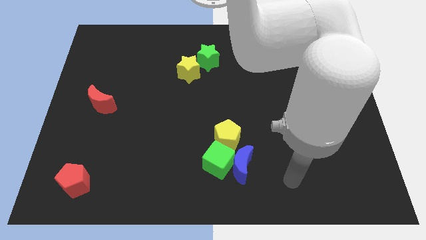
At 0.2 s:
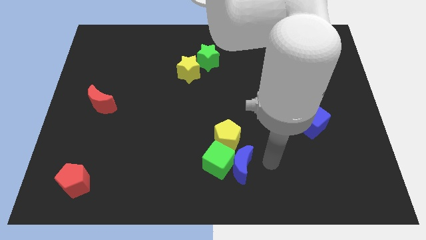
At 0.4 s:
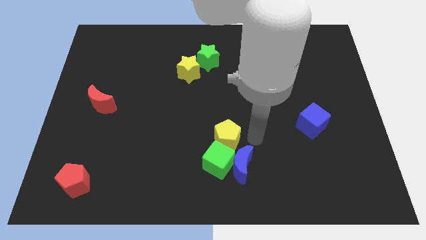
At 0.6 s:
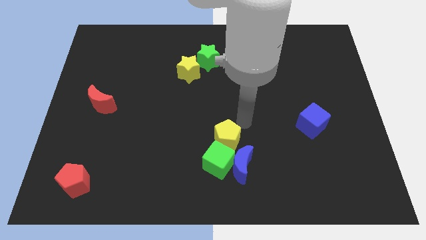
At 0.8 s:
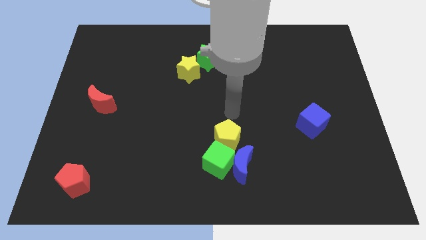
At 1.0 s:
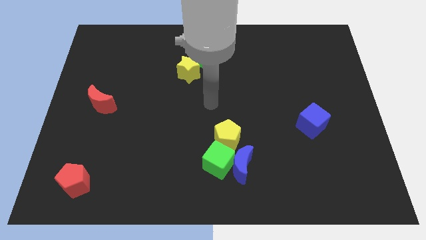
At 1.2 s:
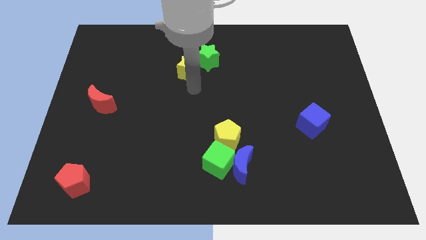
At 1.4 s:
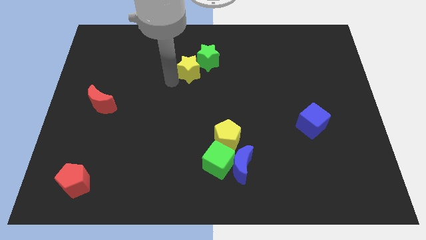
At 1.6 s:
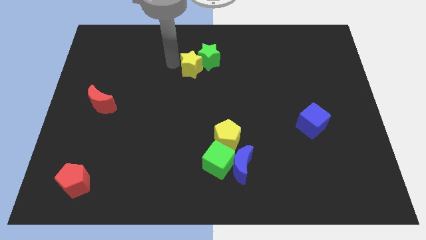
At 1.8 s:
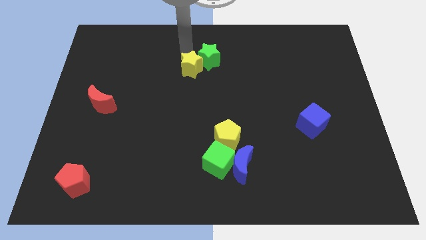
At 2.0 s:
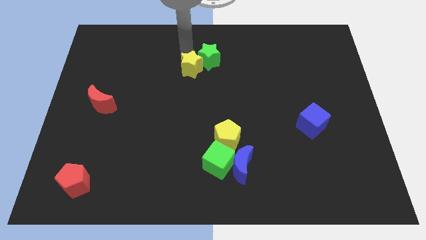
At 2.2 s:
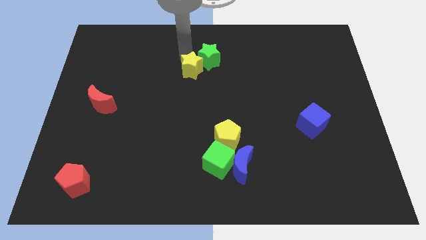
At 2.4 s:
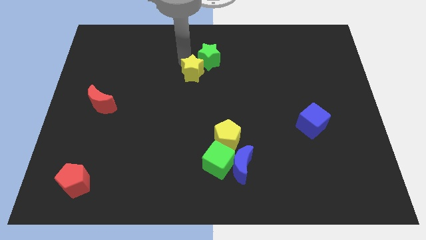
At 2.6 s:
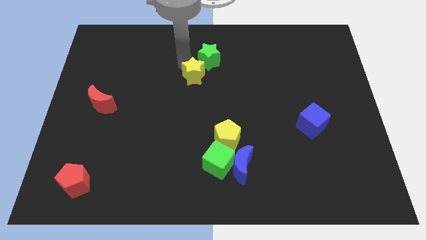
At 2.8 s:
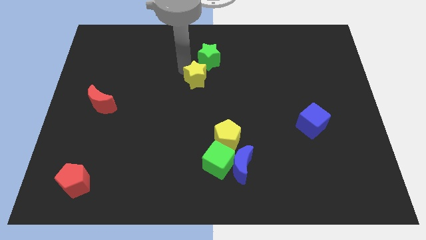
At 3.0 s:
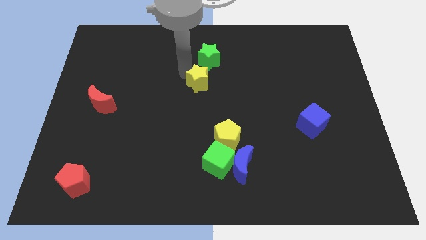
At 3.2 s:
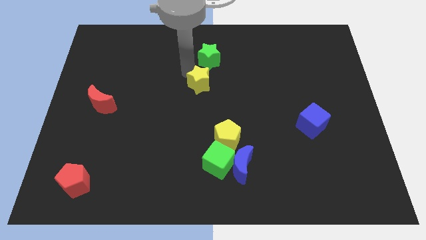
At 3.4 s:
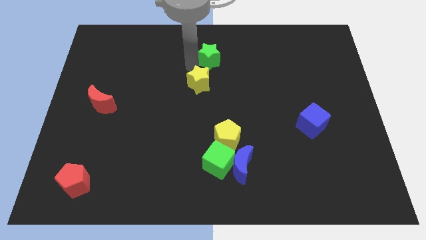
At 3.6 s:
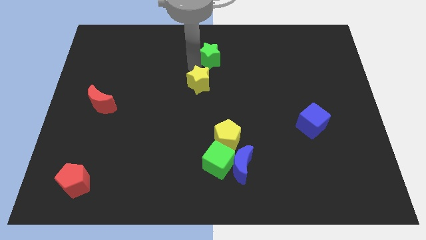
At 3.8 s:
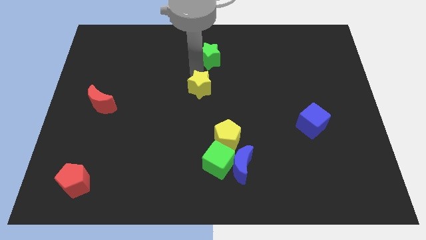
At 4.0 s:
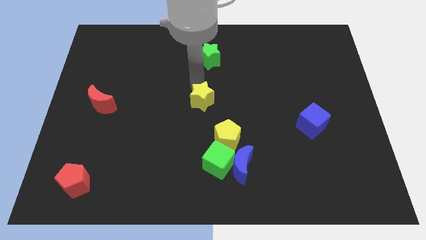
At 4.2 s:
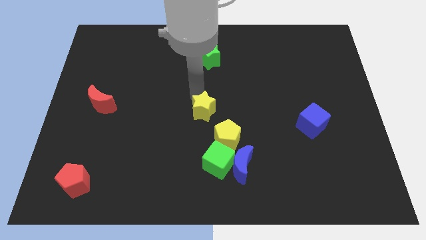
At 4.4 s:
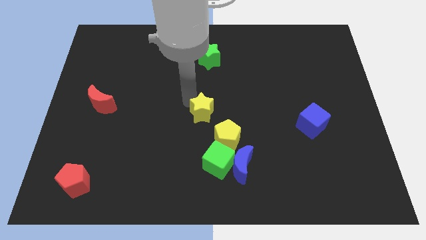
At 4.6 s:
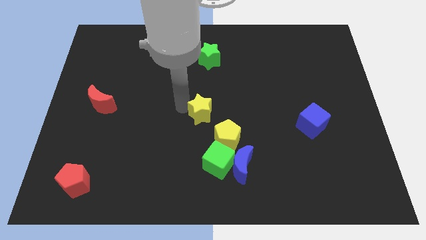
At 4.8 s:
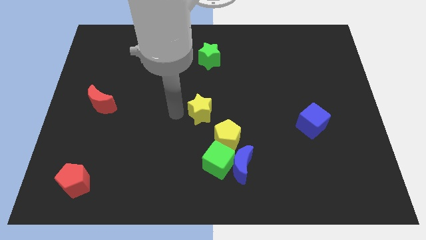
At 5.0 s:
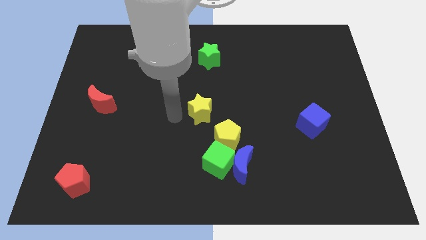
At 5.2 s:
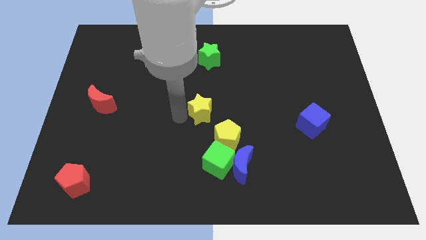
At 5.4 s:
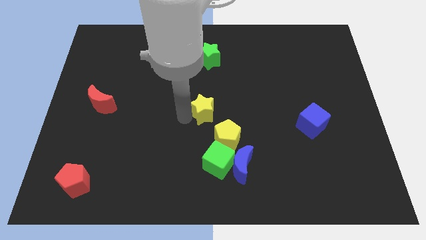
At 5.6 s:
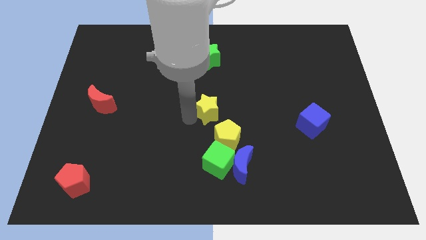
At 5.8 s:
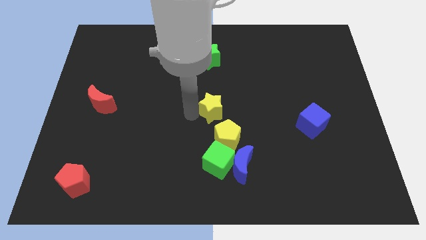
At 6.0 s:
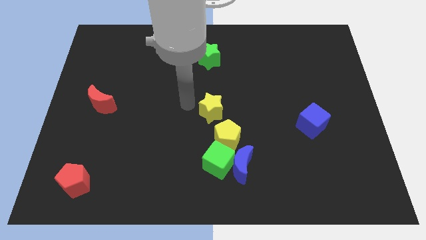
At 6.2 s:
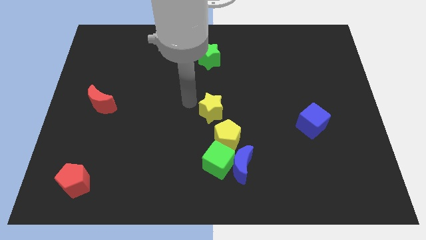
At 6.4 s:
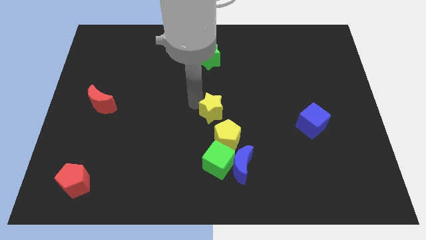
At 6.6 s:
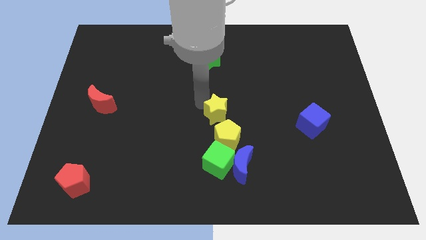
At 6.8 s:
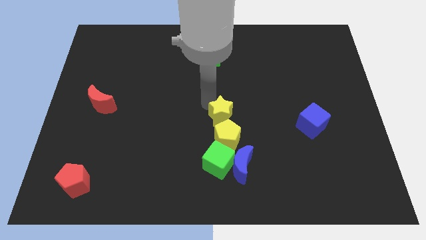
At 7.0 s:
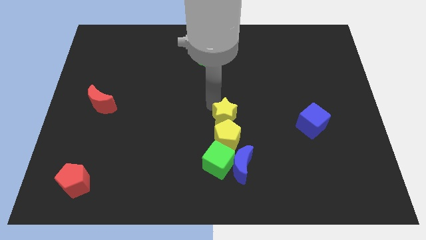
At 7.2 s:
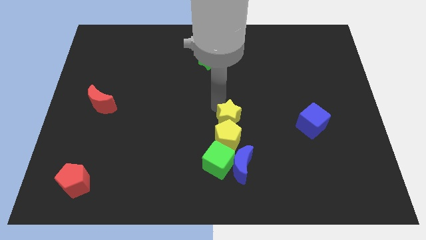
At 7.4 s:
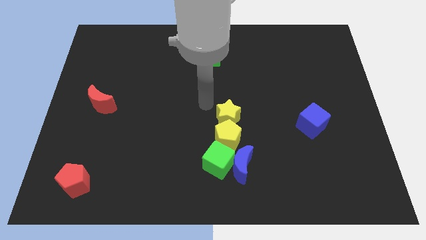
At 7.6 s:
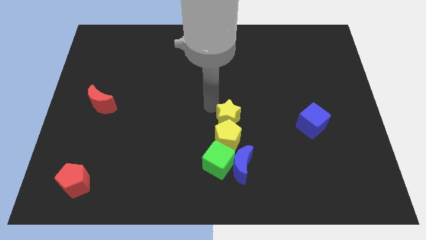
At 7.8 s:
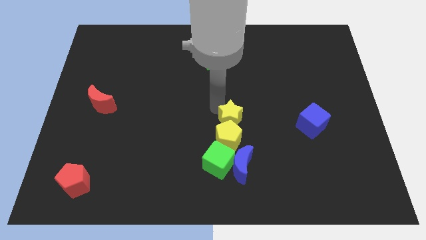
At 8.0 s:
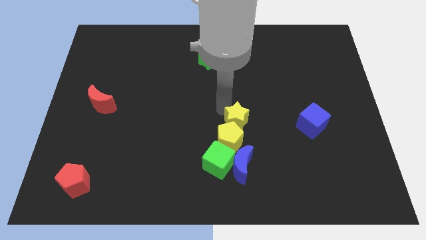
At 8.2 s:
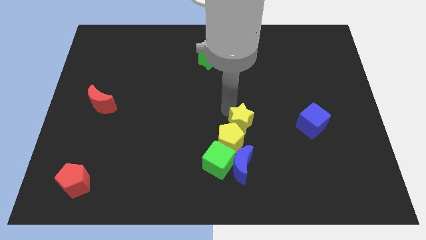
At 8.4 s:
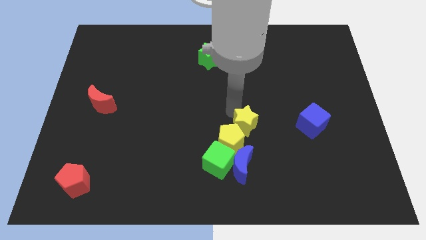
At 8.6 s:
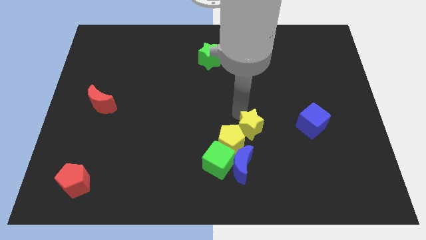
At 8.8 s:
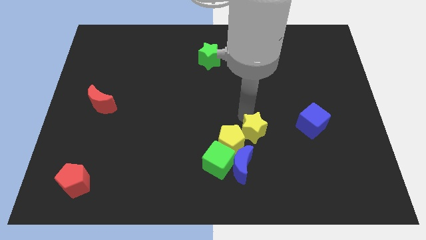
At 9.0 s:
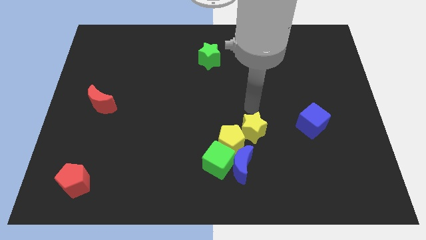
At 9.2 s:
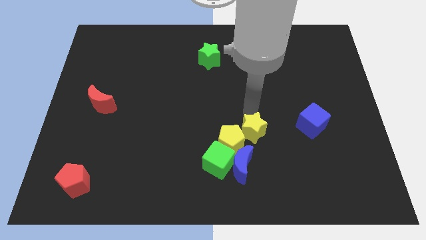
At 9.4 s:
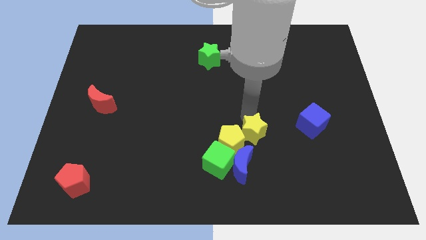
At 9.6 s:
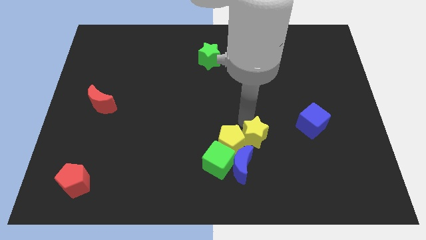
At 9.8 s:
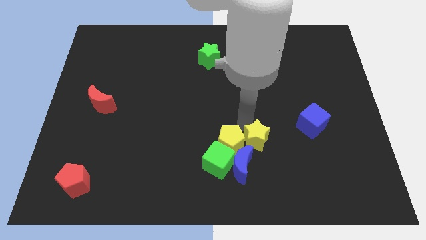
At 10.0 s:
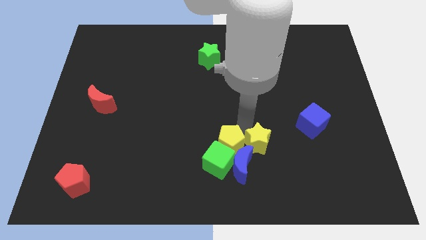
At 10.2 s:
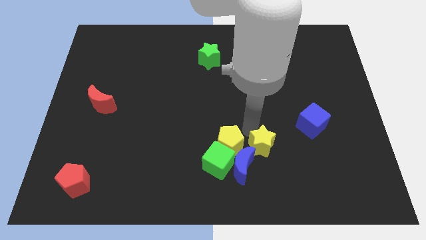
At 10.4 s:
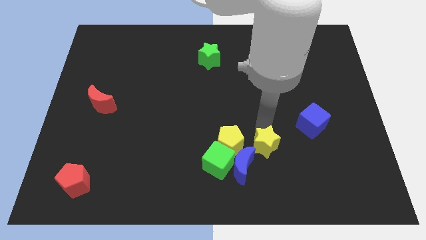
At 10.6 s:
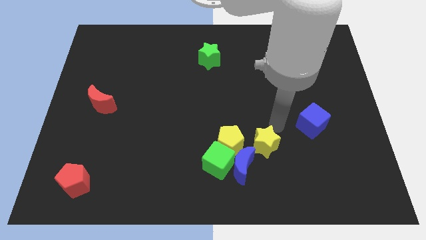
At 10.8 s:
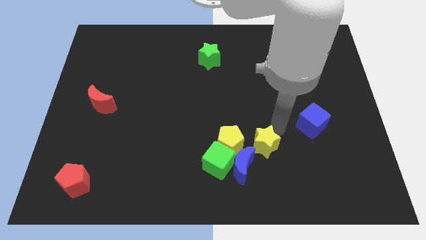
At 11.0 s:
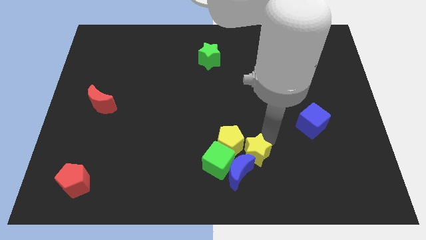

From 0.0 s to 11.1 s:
move the yellow star to the blue moon

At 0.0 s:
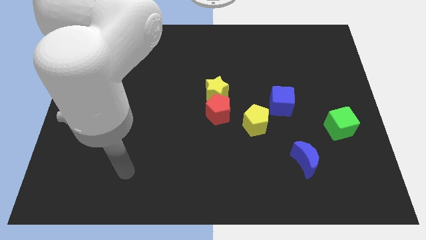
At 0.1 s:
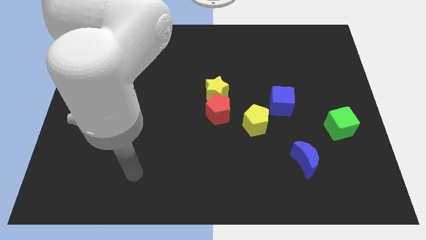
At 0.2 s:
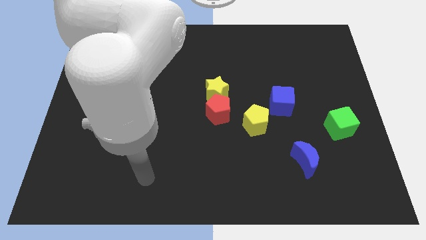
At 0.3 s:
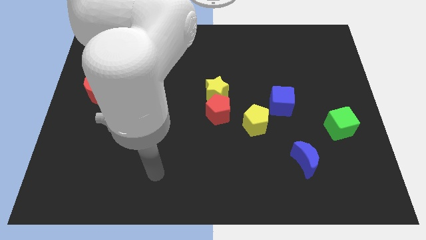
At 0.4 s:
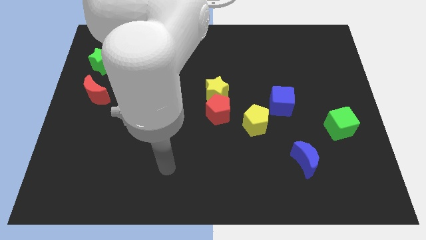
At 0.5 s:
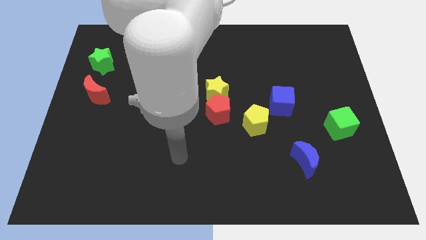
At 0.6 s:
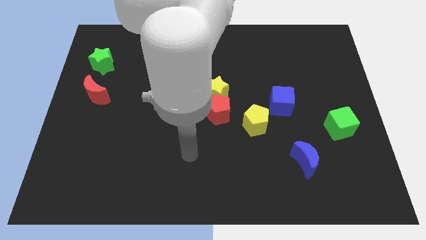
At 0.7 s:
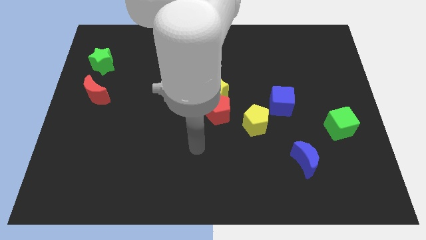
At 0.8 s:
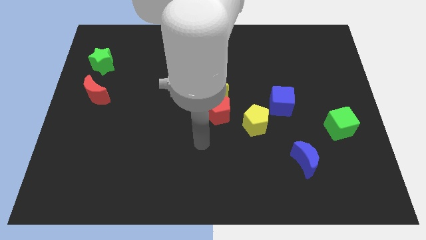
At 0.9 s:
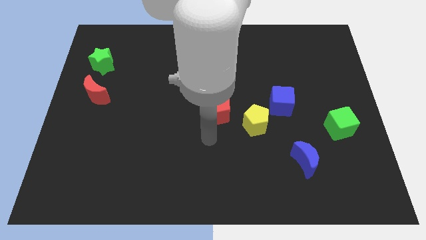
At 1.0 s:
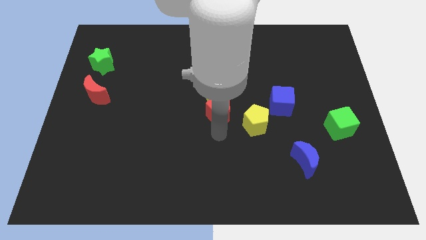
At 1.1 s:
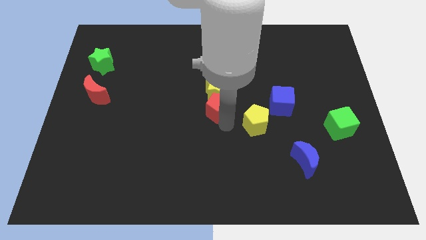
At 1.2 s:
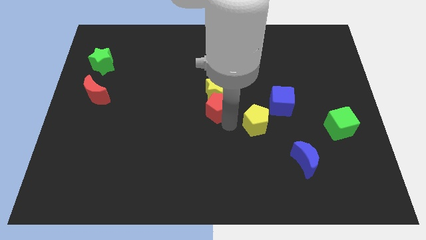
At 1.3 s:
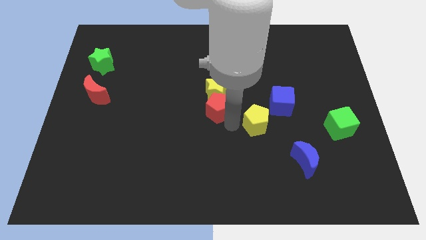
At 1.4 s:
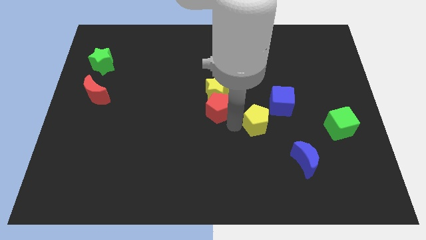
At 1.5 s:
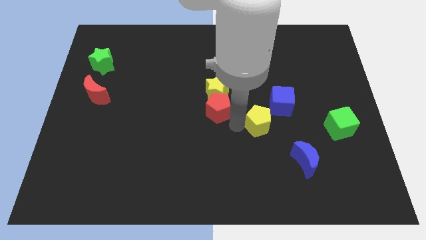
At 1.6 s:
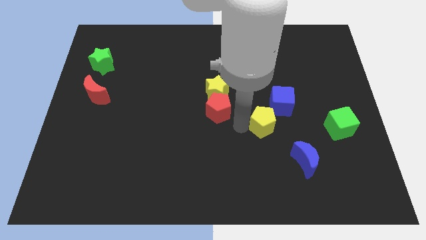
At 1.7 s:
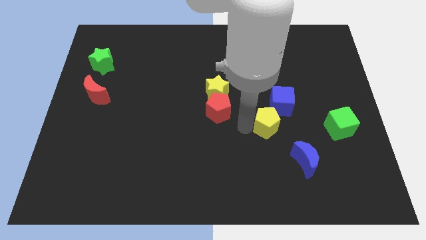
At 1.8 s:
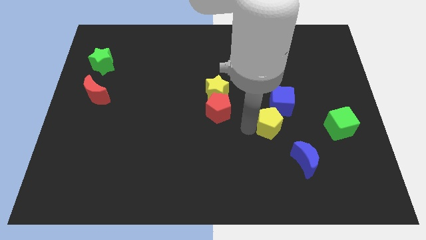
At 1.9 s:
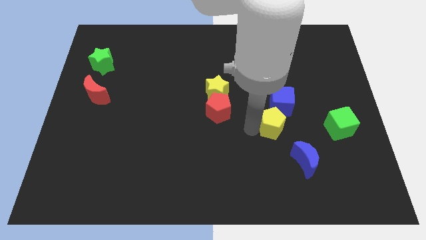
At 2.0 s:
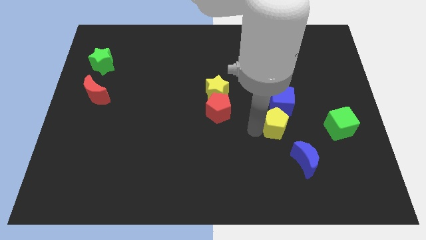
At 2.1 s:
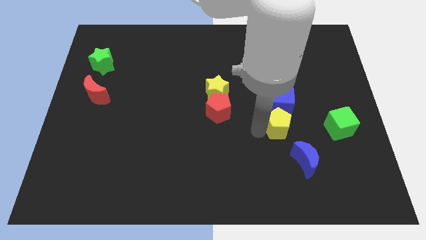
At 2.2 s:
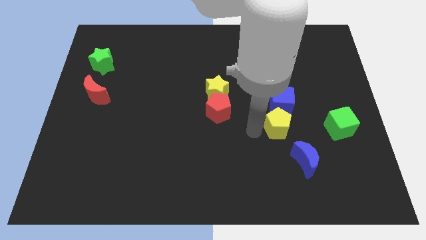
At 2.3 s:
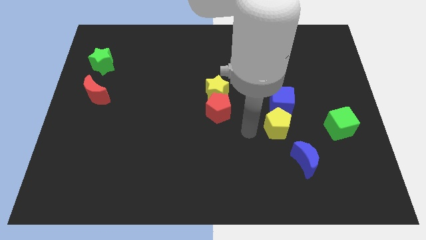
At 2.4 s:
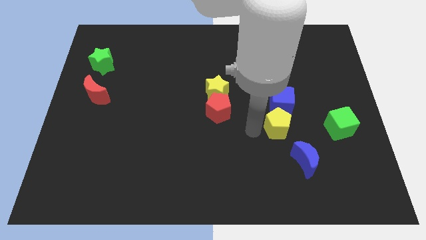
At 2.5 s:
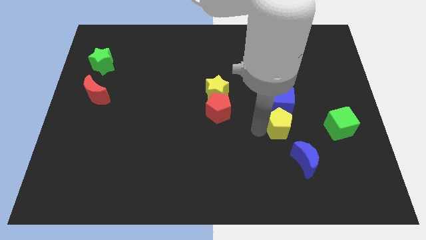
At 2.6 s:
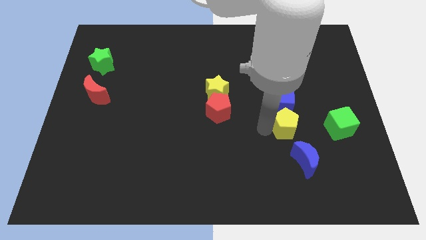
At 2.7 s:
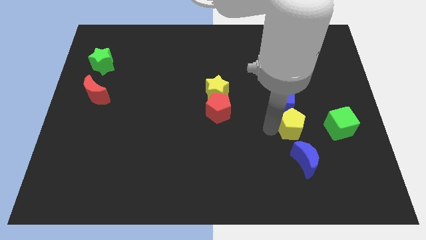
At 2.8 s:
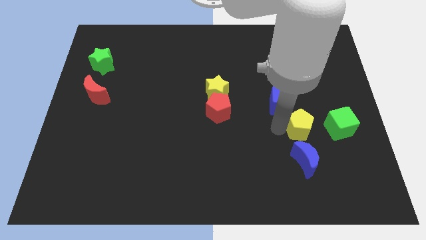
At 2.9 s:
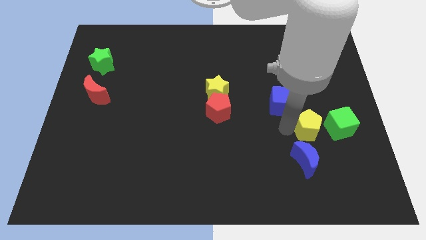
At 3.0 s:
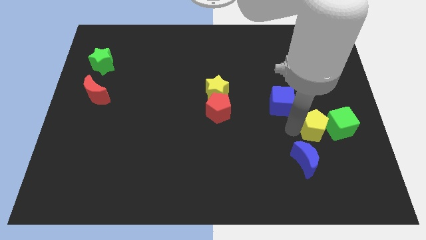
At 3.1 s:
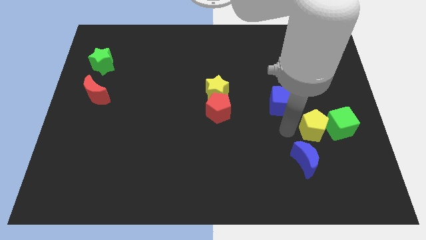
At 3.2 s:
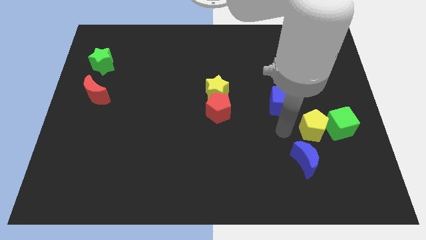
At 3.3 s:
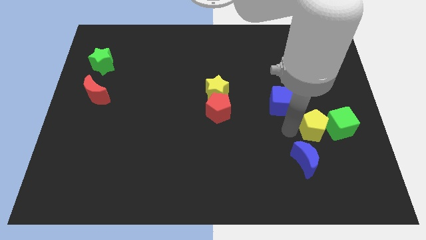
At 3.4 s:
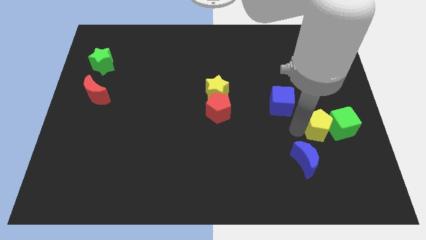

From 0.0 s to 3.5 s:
move the yellow pentagon next to the green cube
